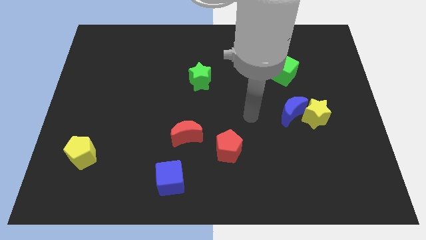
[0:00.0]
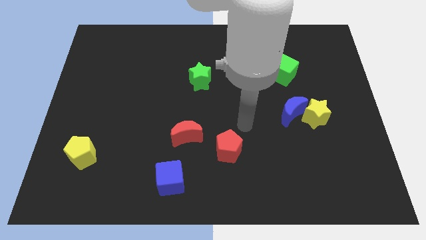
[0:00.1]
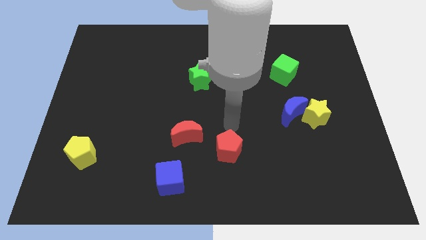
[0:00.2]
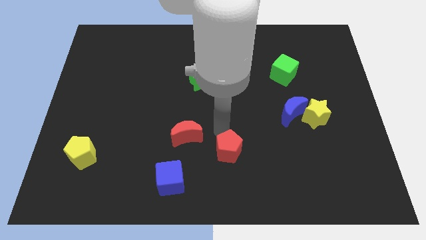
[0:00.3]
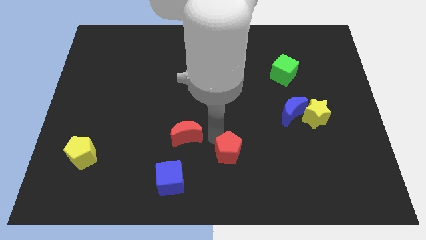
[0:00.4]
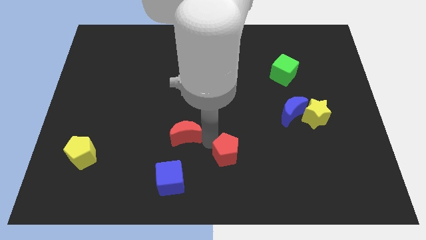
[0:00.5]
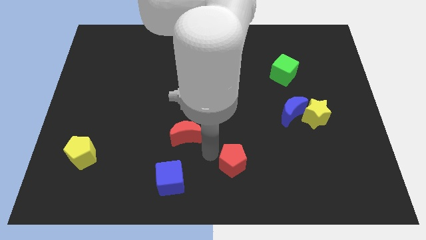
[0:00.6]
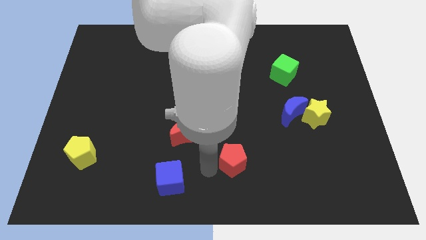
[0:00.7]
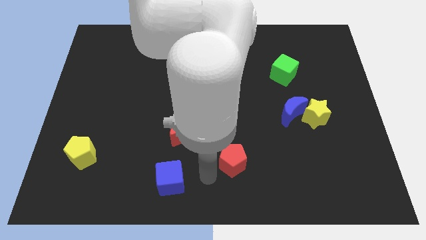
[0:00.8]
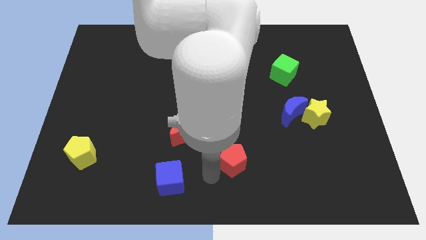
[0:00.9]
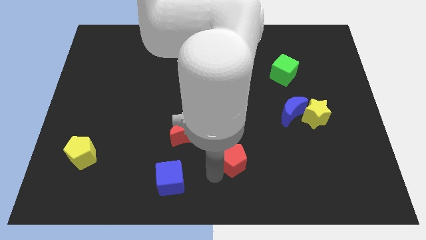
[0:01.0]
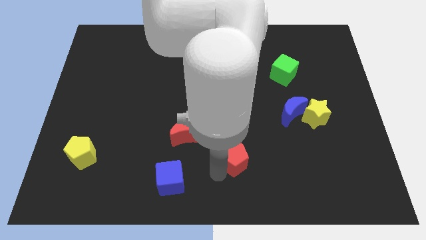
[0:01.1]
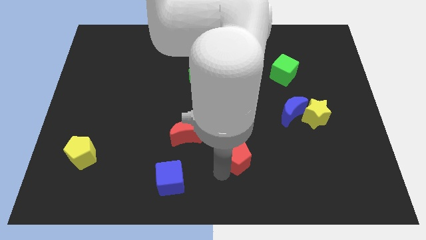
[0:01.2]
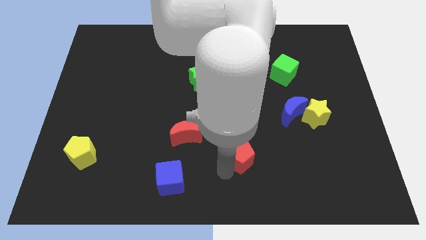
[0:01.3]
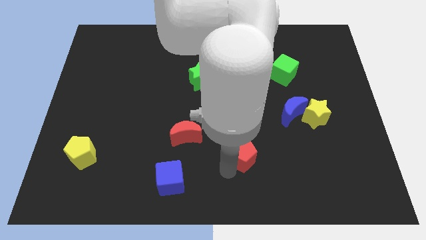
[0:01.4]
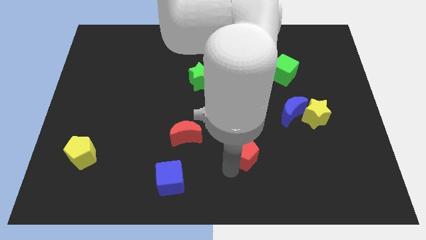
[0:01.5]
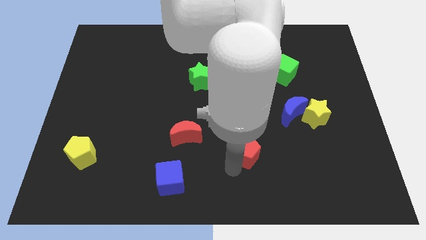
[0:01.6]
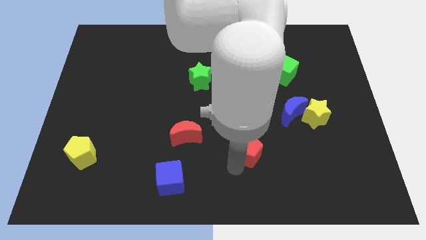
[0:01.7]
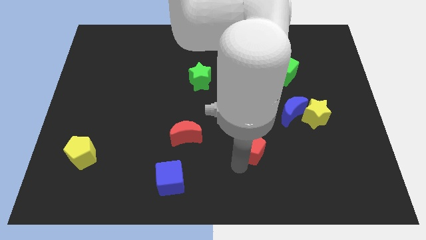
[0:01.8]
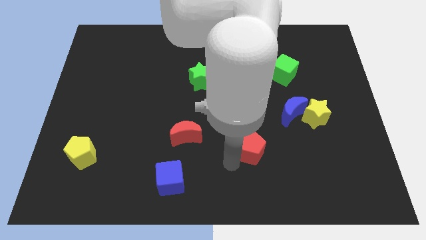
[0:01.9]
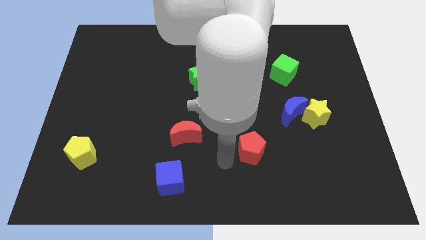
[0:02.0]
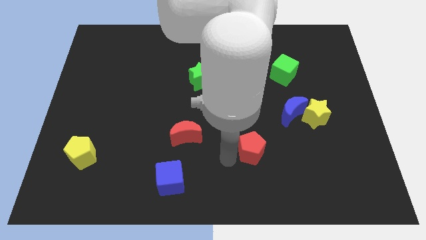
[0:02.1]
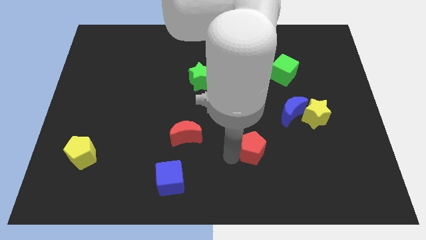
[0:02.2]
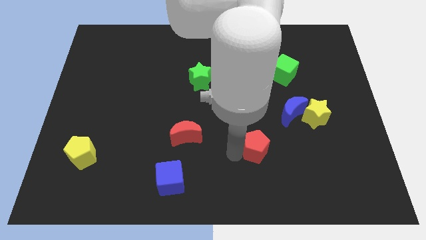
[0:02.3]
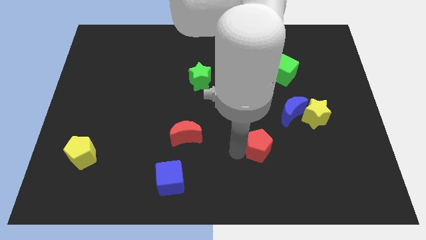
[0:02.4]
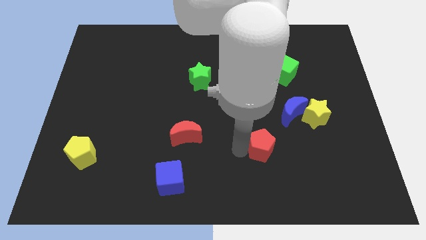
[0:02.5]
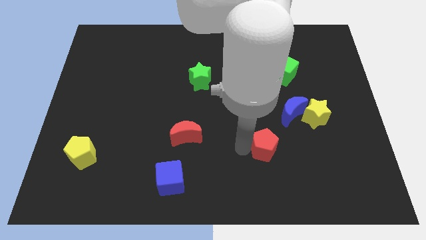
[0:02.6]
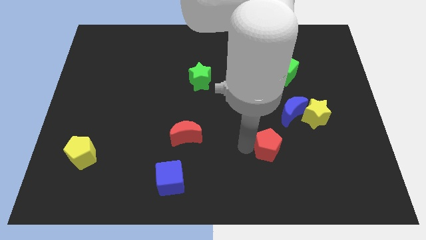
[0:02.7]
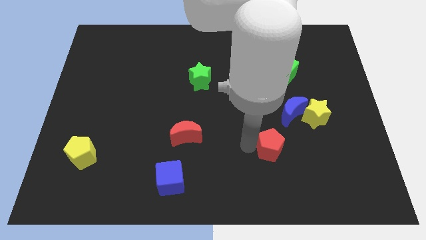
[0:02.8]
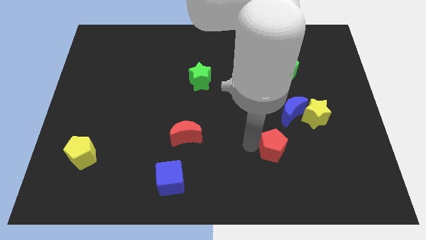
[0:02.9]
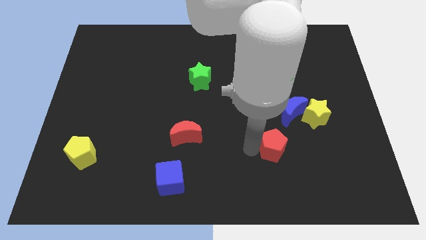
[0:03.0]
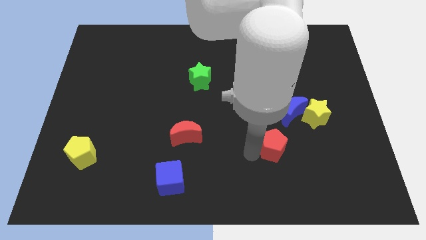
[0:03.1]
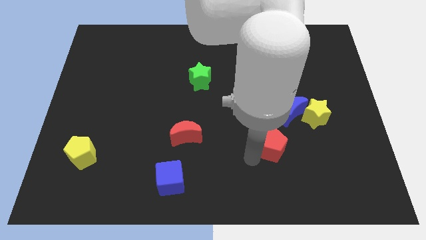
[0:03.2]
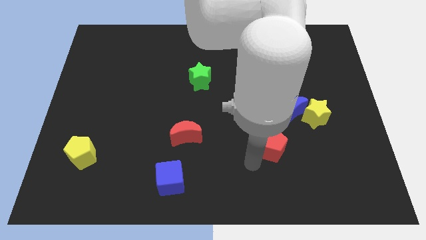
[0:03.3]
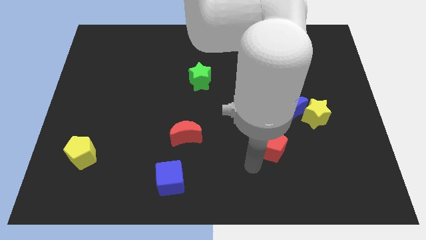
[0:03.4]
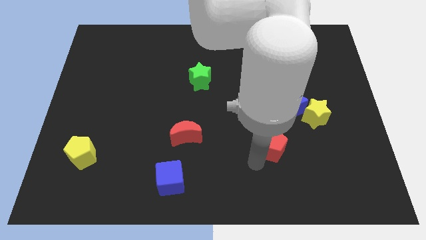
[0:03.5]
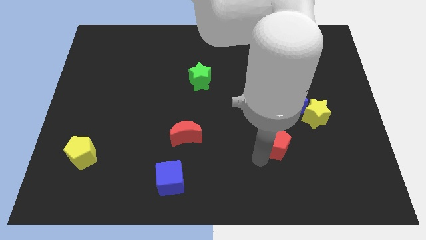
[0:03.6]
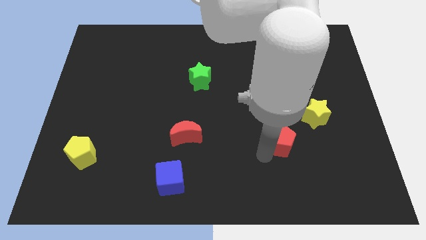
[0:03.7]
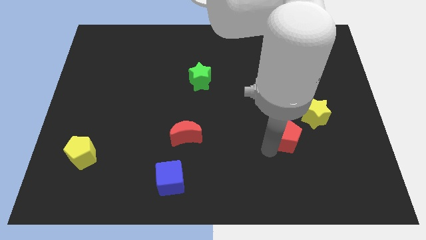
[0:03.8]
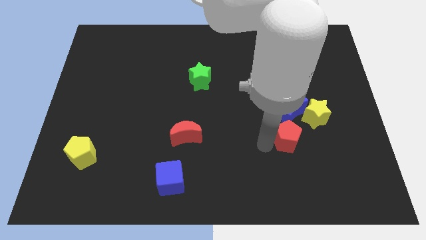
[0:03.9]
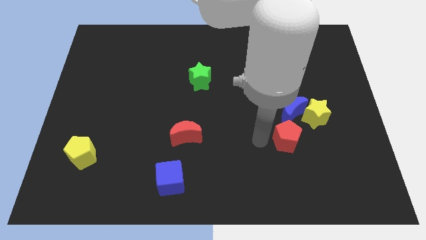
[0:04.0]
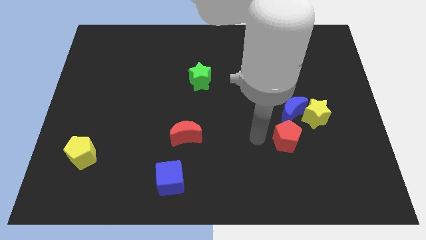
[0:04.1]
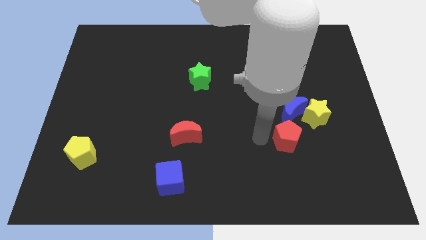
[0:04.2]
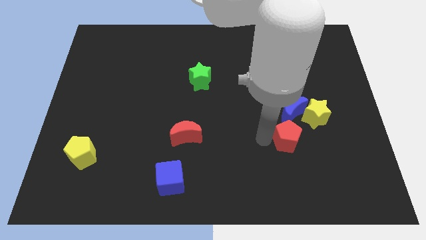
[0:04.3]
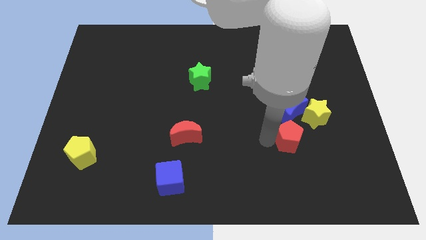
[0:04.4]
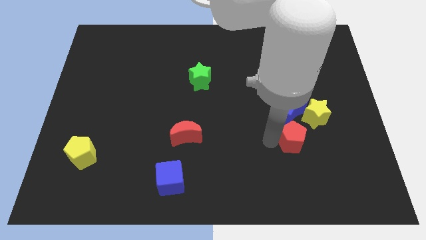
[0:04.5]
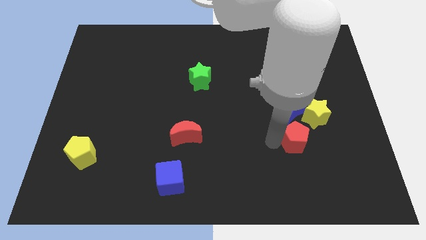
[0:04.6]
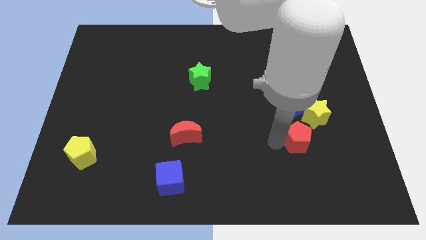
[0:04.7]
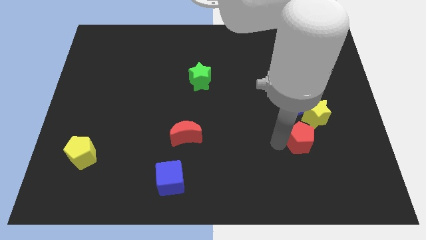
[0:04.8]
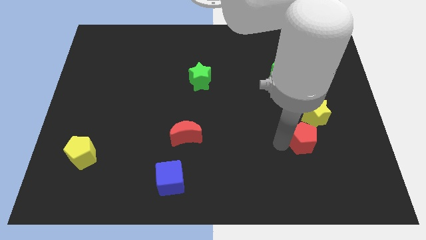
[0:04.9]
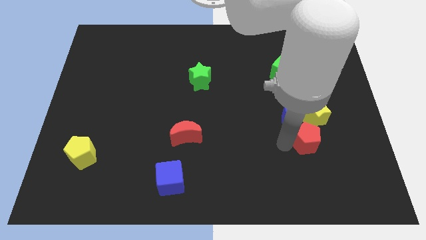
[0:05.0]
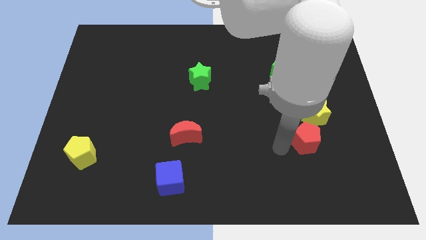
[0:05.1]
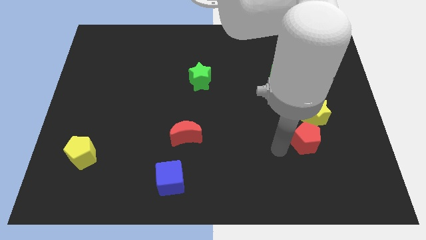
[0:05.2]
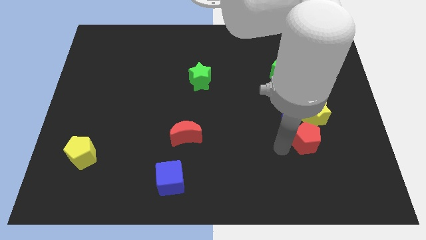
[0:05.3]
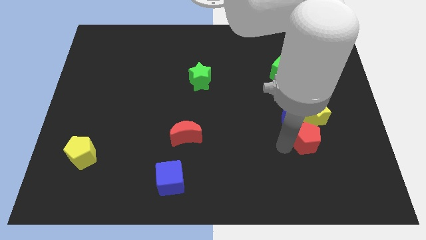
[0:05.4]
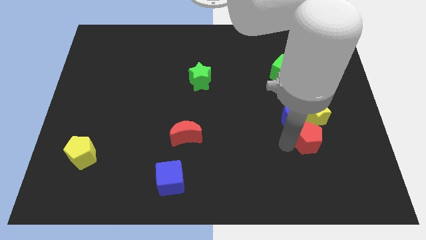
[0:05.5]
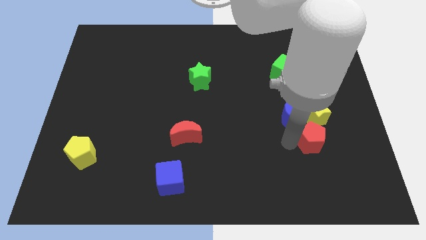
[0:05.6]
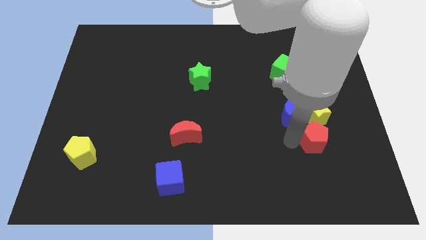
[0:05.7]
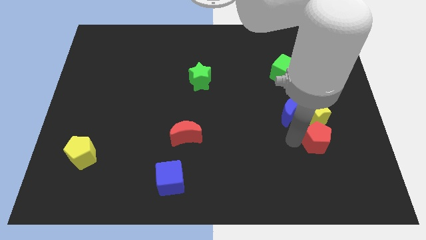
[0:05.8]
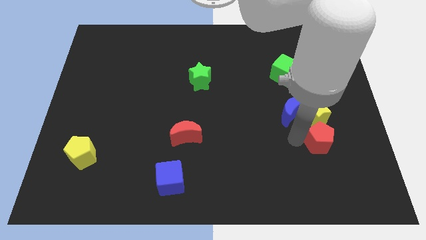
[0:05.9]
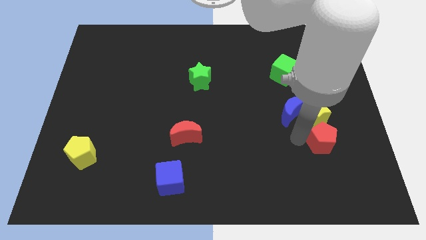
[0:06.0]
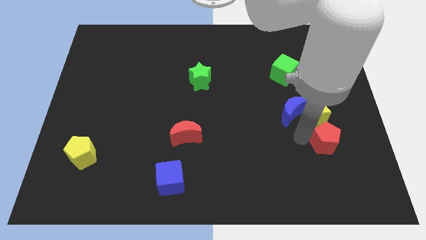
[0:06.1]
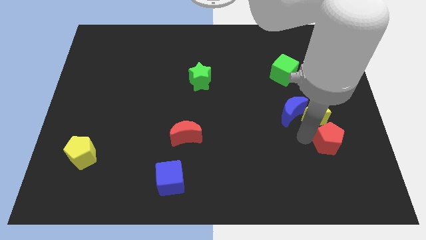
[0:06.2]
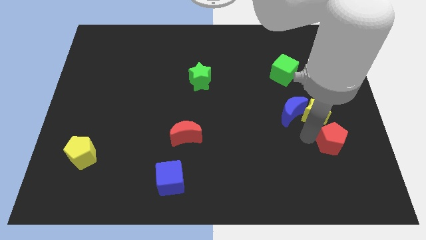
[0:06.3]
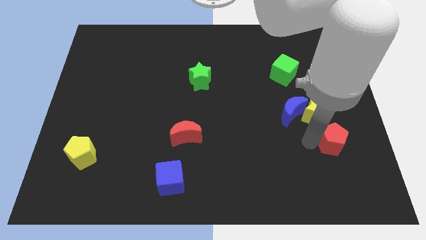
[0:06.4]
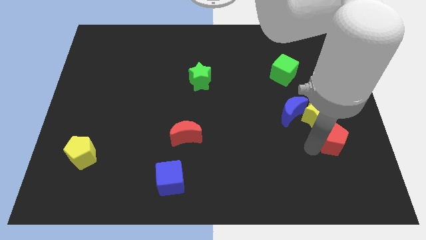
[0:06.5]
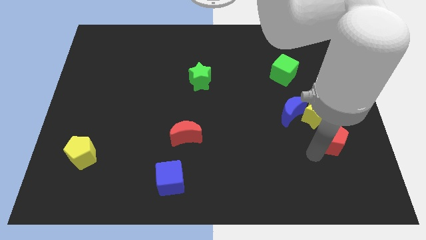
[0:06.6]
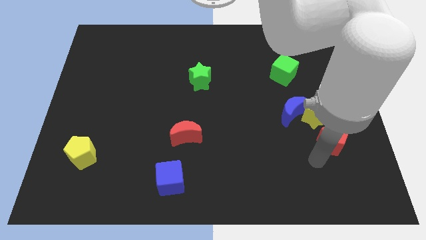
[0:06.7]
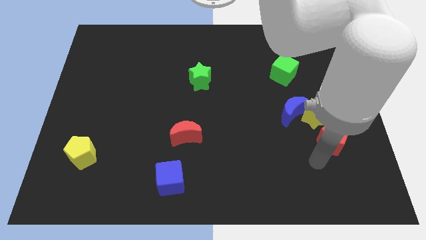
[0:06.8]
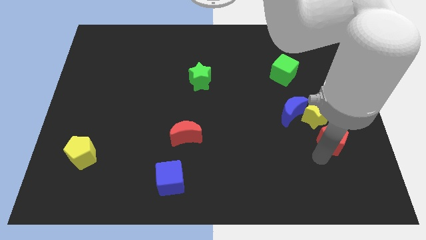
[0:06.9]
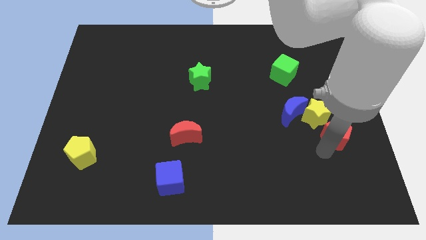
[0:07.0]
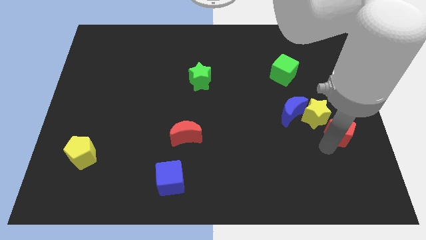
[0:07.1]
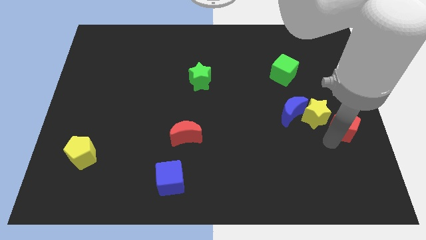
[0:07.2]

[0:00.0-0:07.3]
move the red pentagon to the right side
